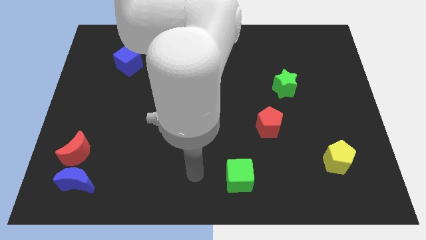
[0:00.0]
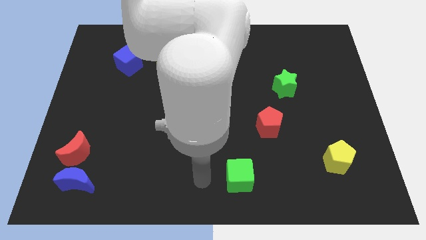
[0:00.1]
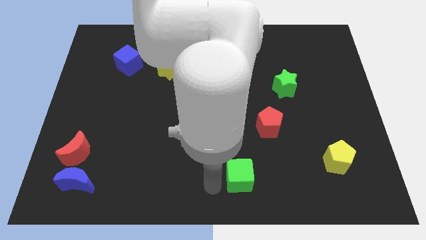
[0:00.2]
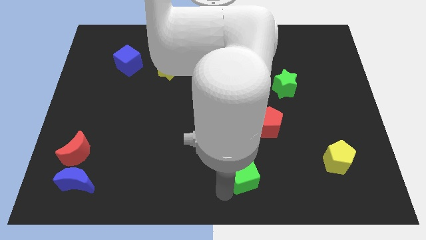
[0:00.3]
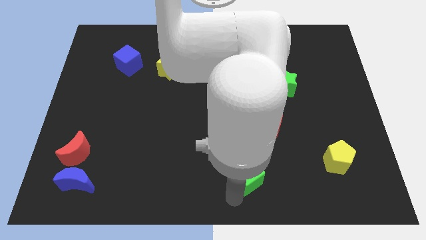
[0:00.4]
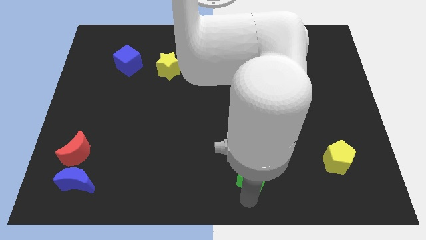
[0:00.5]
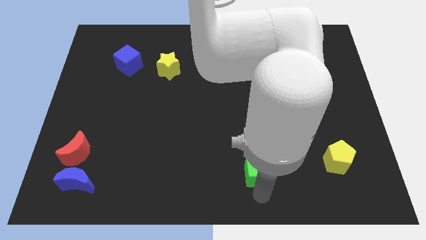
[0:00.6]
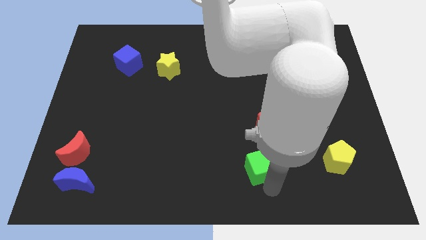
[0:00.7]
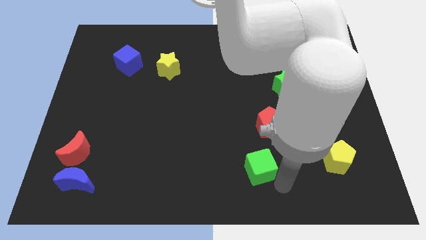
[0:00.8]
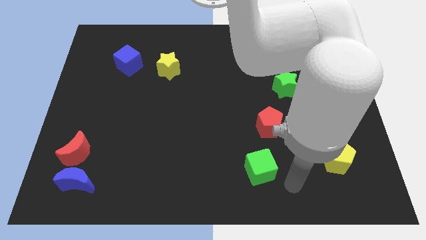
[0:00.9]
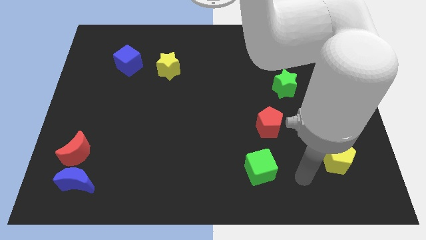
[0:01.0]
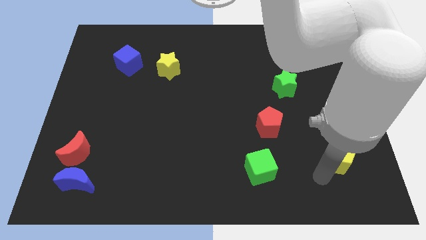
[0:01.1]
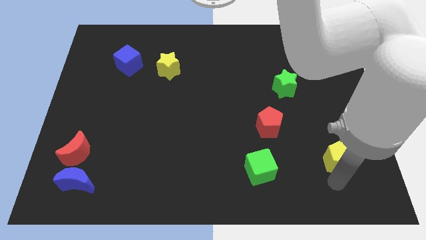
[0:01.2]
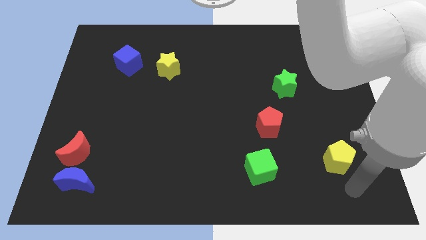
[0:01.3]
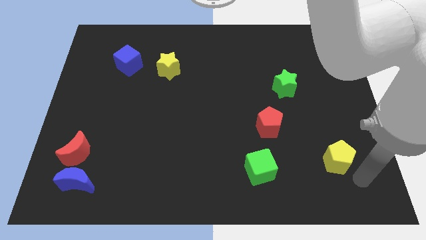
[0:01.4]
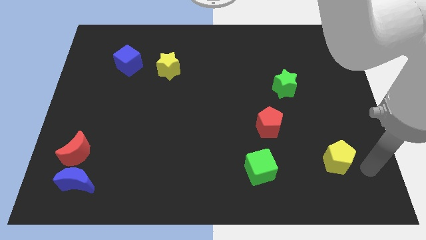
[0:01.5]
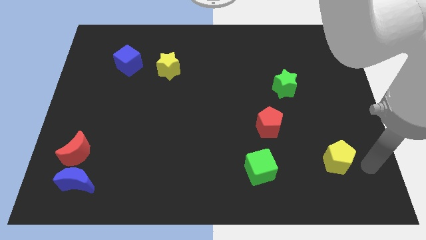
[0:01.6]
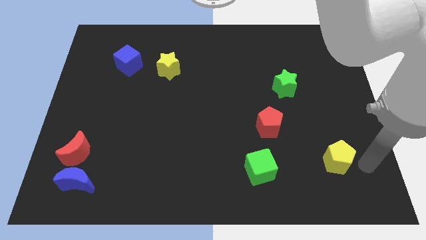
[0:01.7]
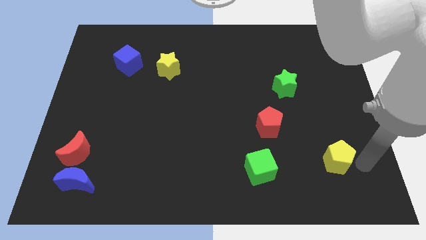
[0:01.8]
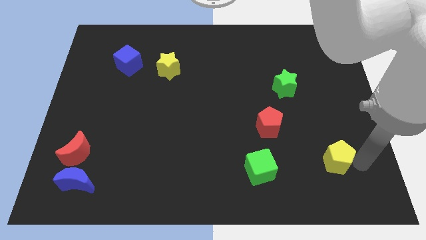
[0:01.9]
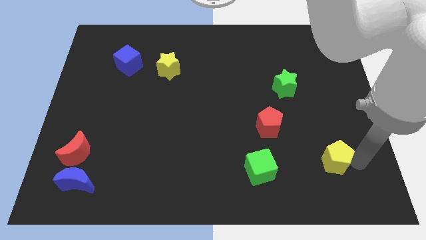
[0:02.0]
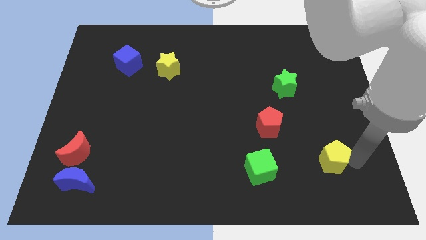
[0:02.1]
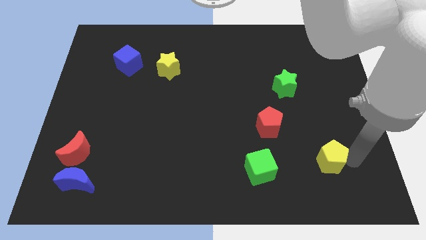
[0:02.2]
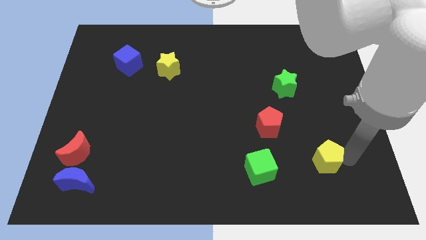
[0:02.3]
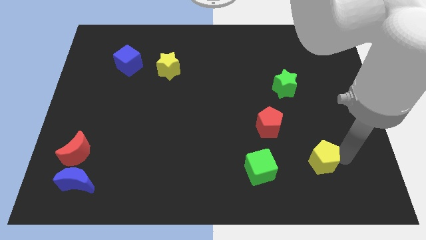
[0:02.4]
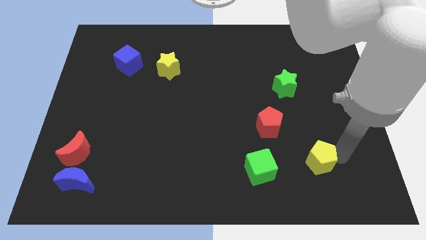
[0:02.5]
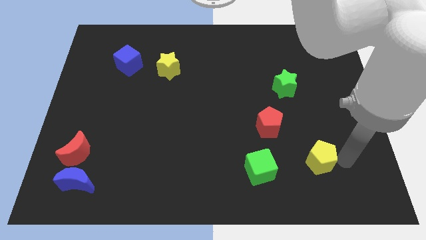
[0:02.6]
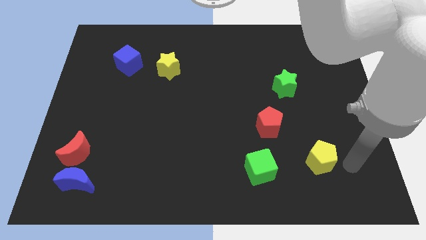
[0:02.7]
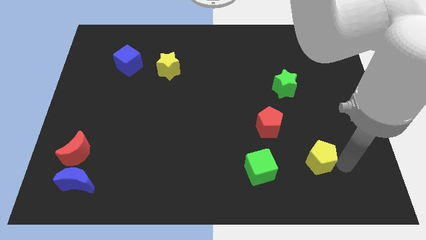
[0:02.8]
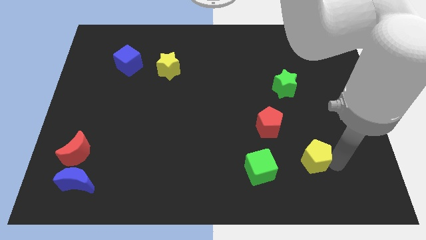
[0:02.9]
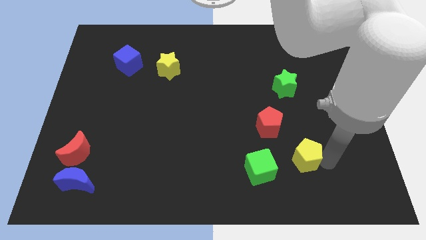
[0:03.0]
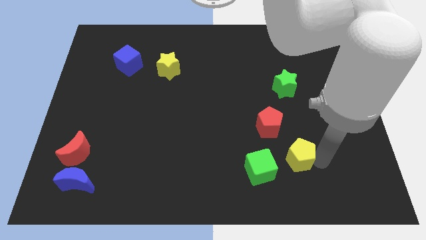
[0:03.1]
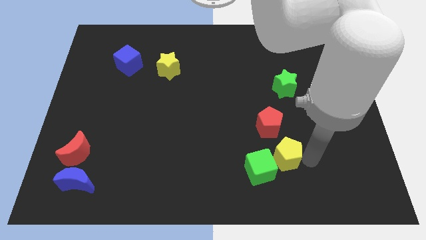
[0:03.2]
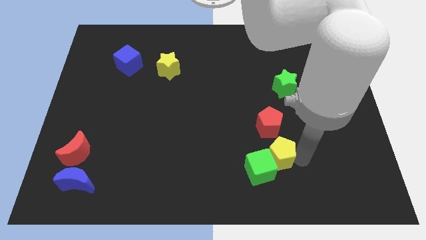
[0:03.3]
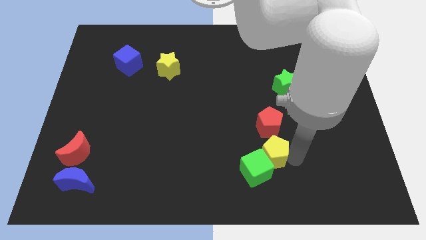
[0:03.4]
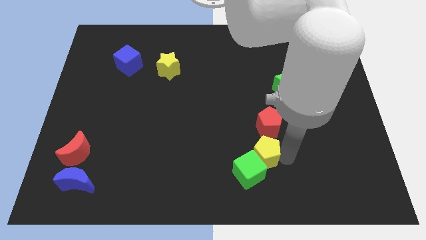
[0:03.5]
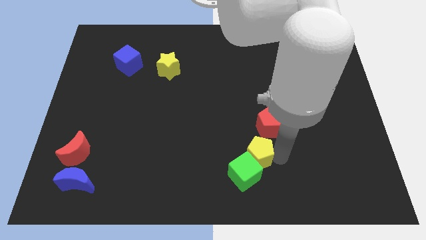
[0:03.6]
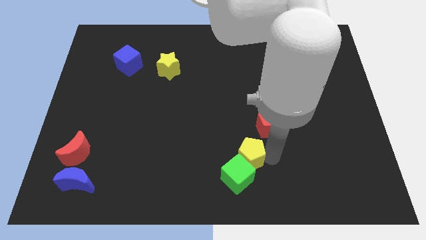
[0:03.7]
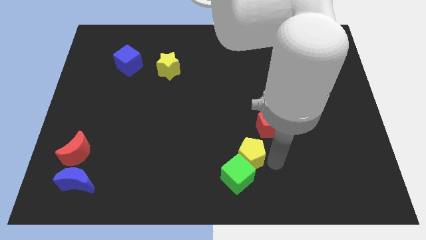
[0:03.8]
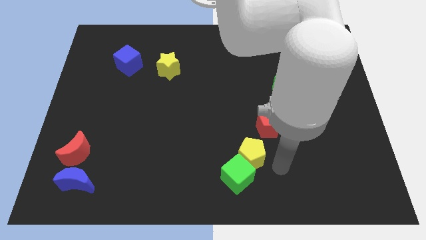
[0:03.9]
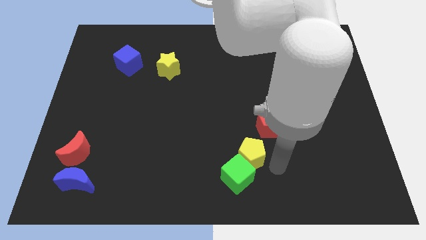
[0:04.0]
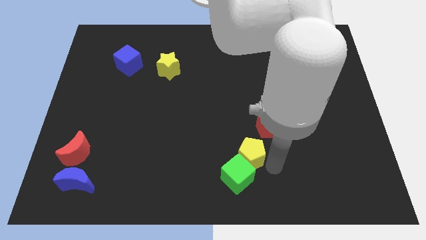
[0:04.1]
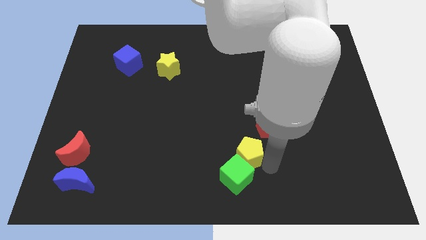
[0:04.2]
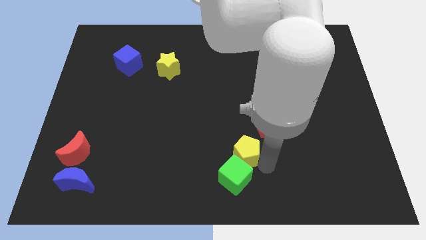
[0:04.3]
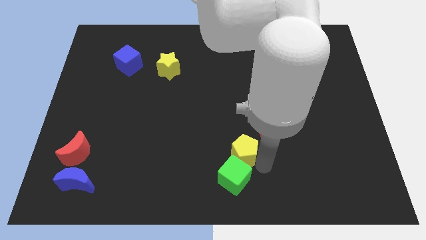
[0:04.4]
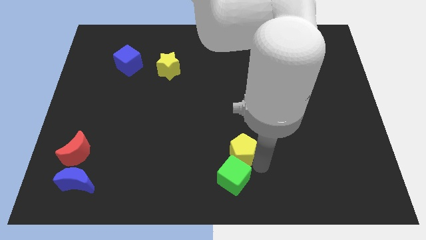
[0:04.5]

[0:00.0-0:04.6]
push the yellow pentagon left

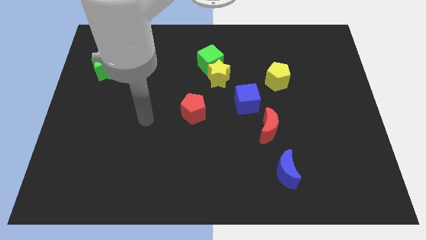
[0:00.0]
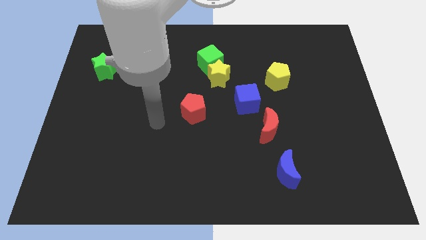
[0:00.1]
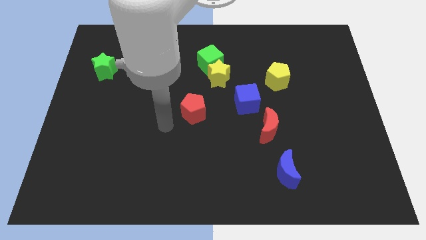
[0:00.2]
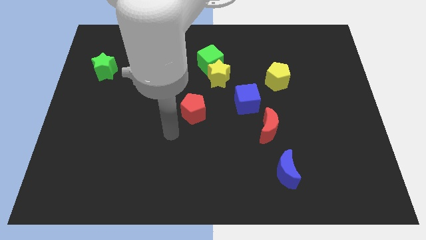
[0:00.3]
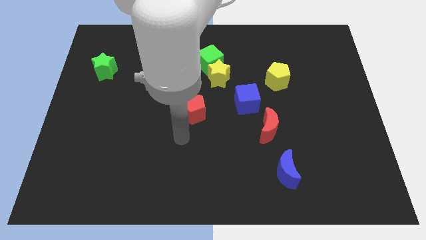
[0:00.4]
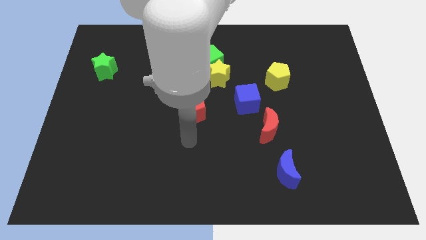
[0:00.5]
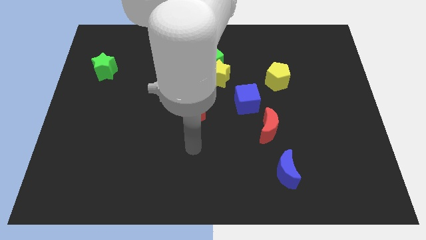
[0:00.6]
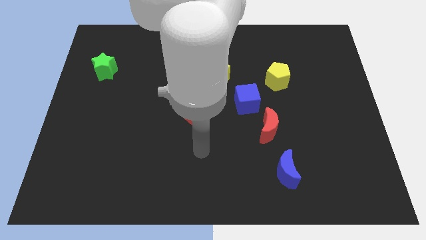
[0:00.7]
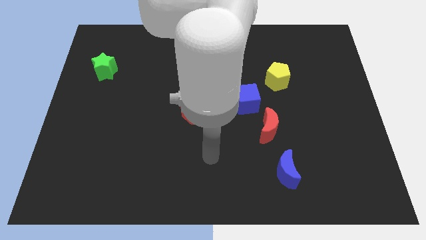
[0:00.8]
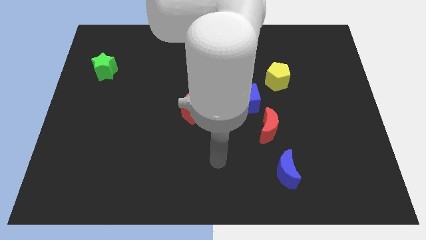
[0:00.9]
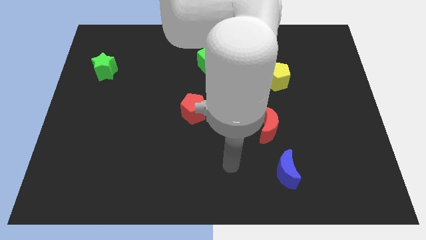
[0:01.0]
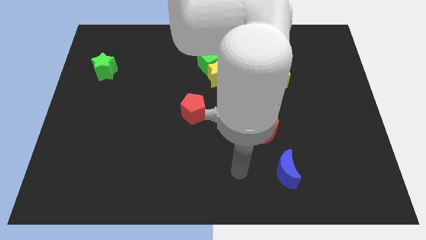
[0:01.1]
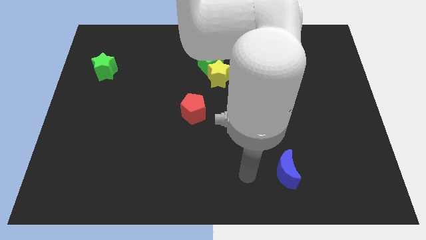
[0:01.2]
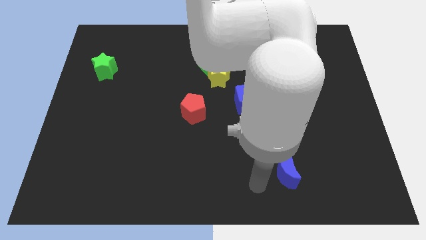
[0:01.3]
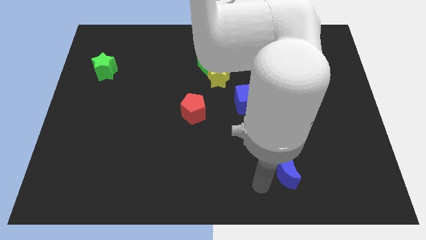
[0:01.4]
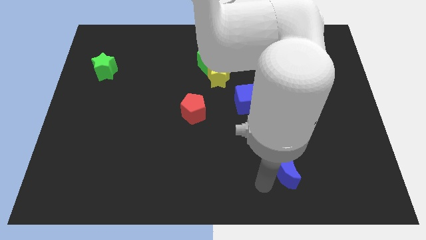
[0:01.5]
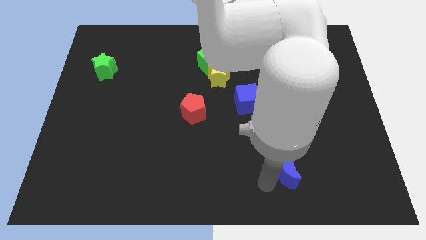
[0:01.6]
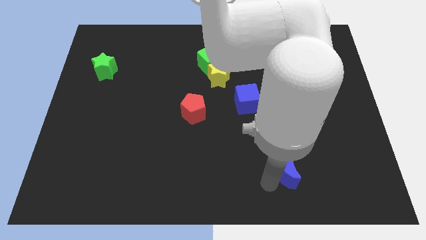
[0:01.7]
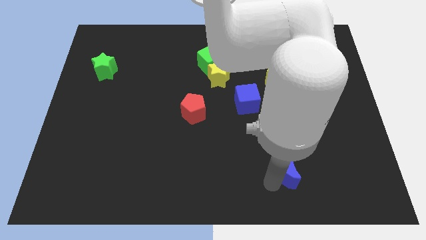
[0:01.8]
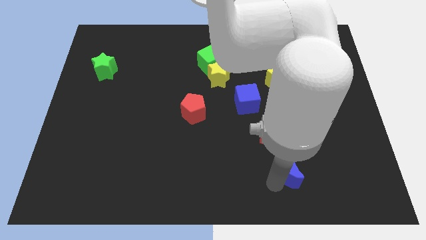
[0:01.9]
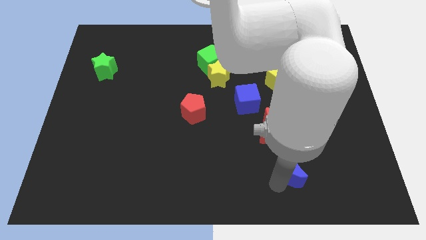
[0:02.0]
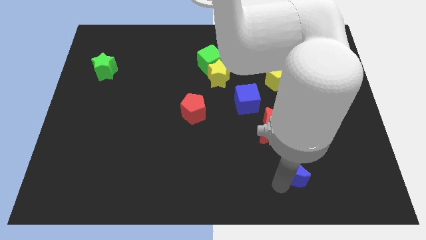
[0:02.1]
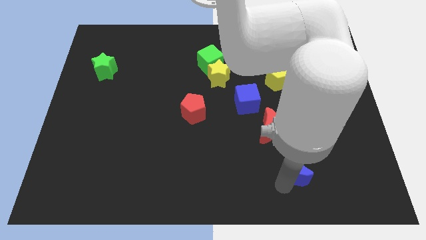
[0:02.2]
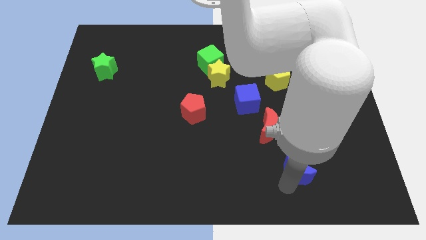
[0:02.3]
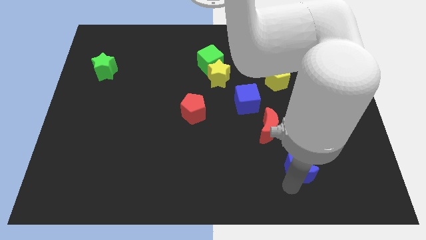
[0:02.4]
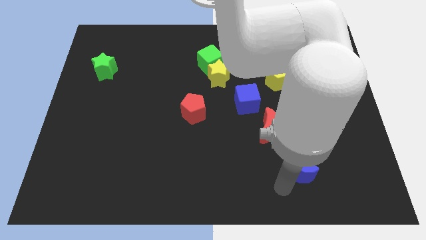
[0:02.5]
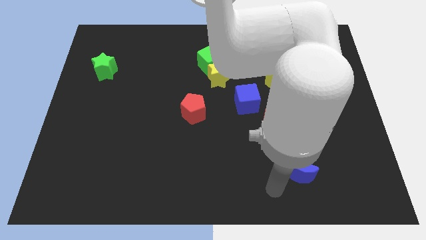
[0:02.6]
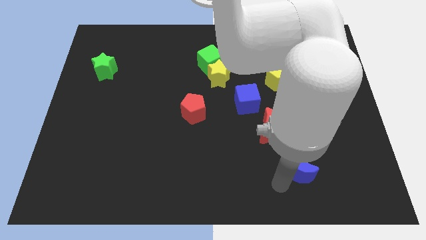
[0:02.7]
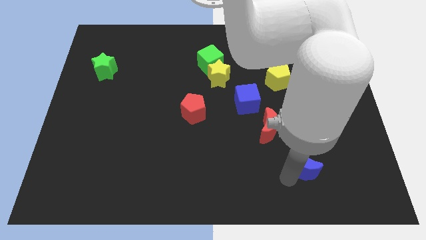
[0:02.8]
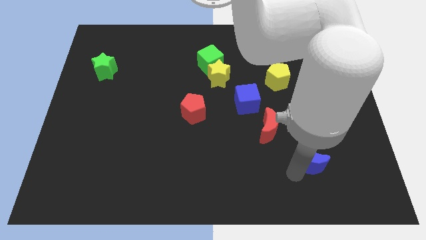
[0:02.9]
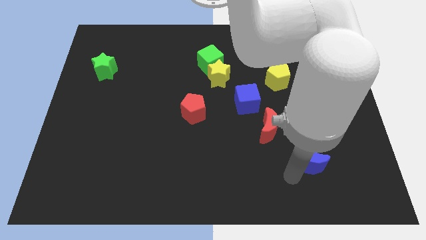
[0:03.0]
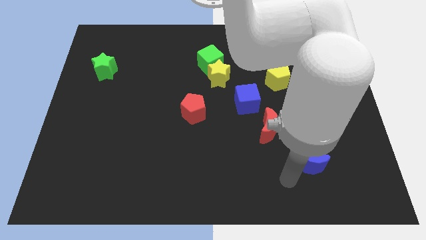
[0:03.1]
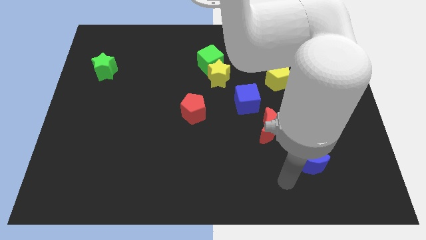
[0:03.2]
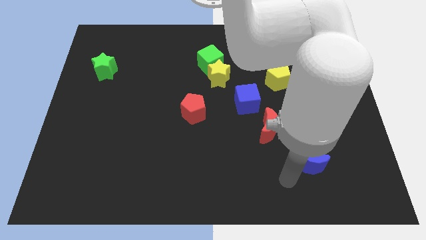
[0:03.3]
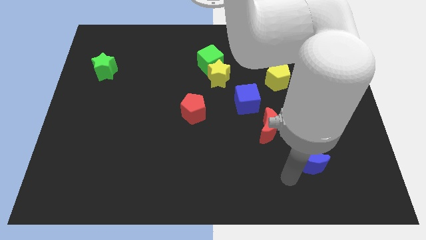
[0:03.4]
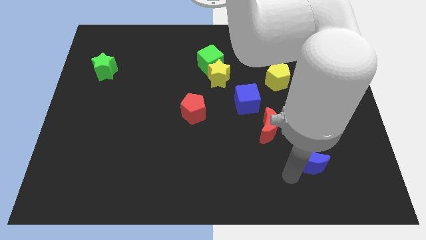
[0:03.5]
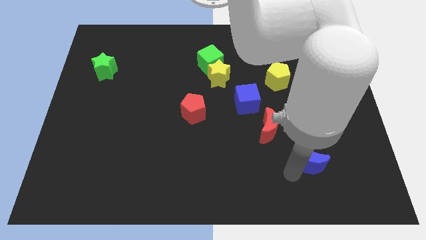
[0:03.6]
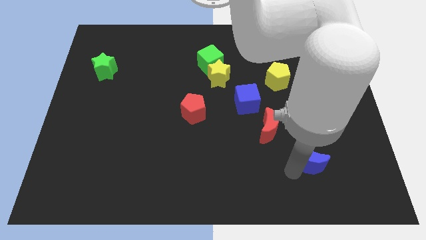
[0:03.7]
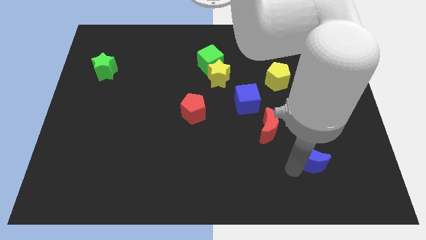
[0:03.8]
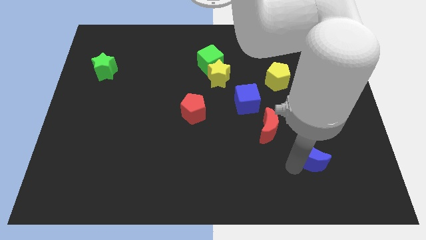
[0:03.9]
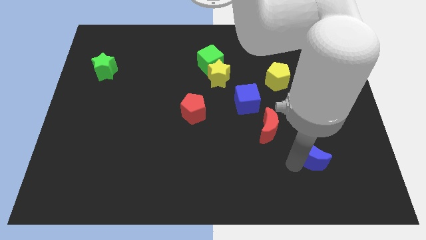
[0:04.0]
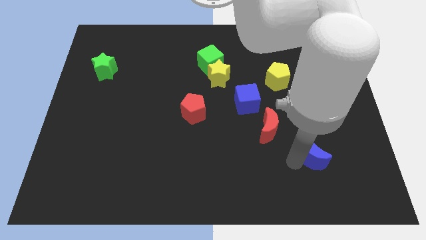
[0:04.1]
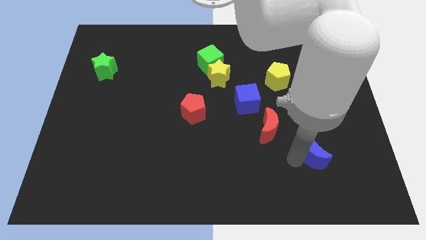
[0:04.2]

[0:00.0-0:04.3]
slide the blue moon up and right diagonally a little
